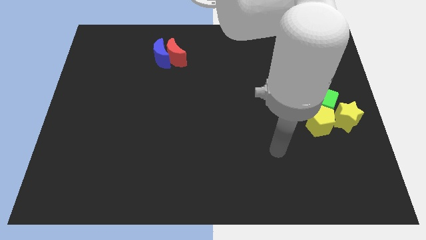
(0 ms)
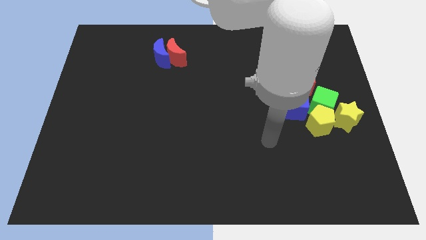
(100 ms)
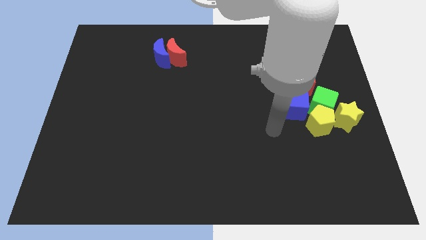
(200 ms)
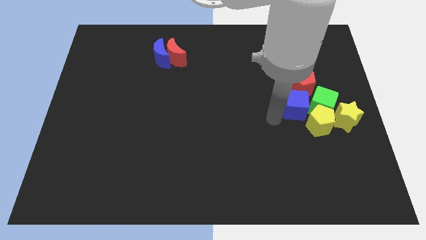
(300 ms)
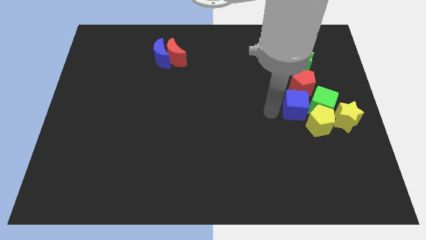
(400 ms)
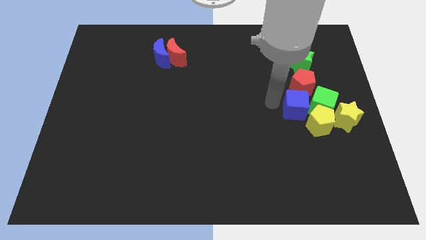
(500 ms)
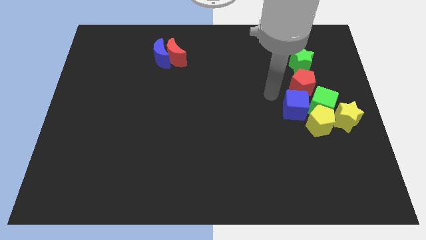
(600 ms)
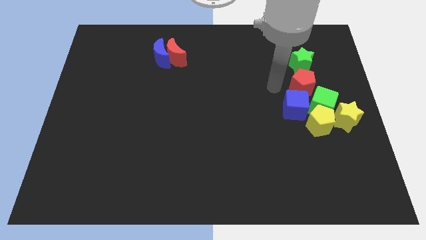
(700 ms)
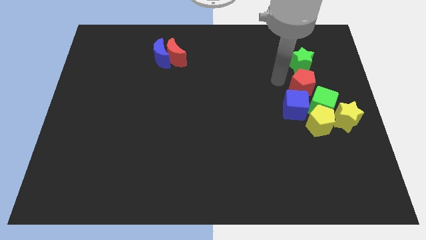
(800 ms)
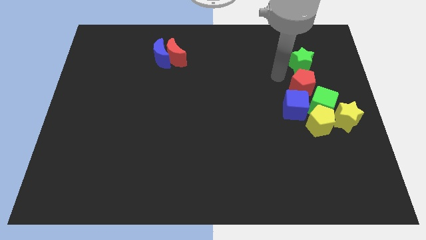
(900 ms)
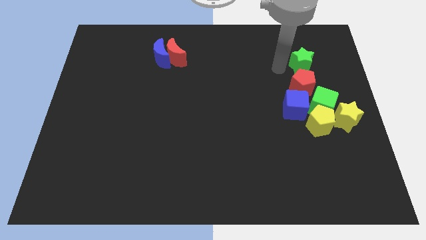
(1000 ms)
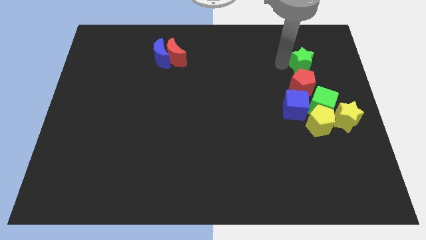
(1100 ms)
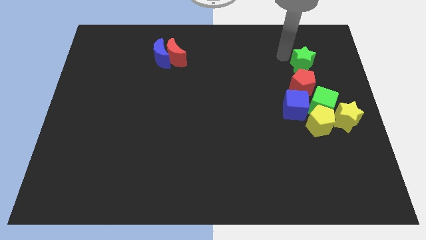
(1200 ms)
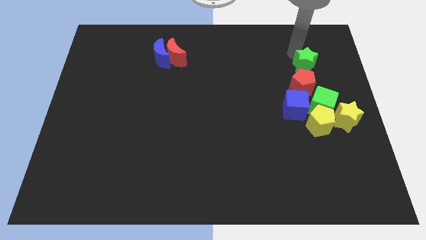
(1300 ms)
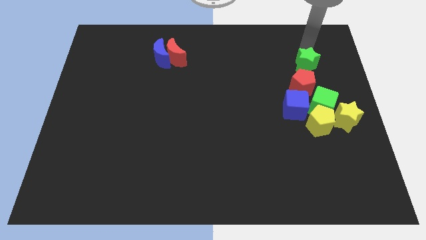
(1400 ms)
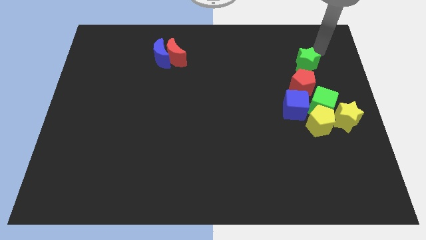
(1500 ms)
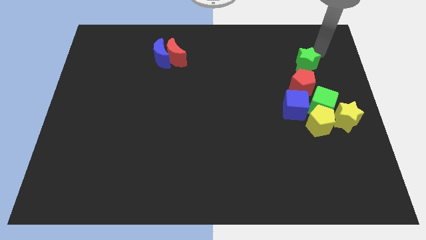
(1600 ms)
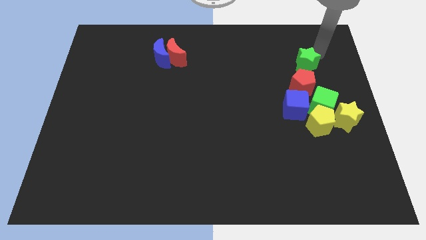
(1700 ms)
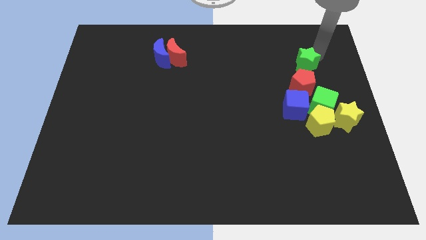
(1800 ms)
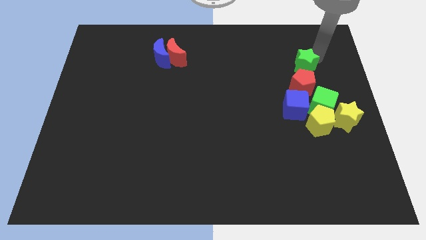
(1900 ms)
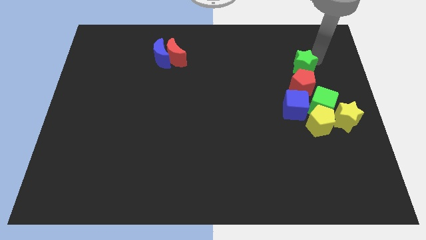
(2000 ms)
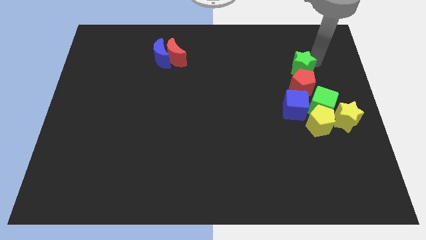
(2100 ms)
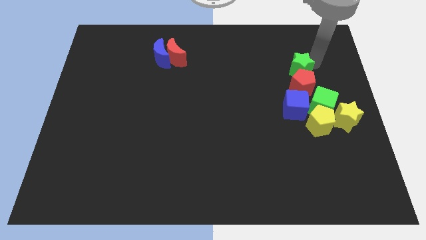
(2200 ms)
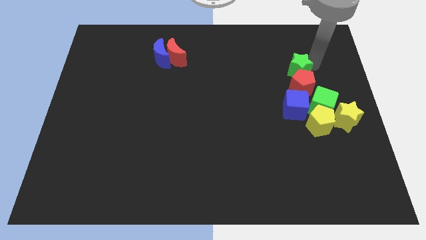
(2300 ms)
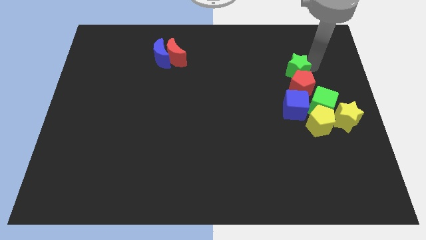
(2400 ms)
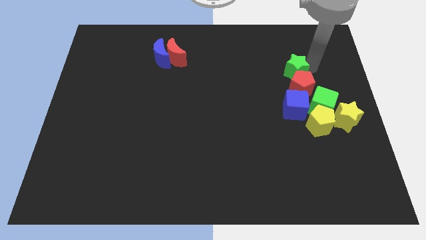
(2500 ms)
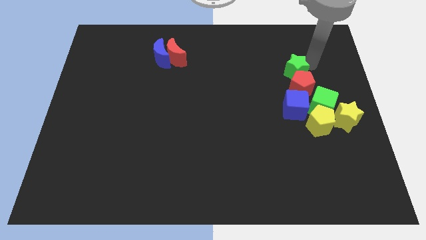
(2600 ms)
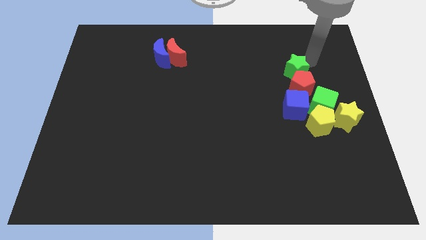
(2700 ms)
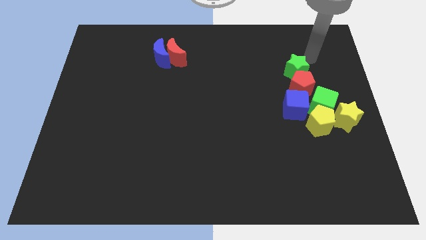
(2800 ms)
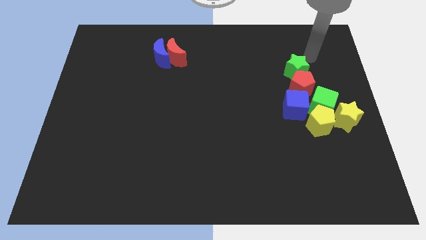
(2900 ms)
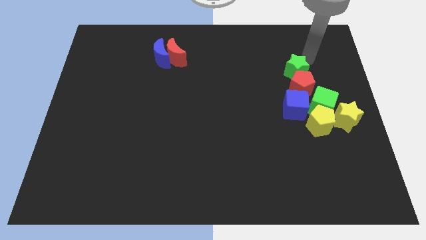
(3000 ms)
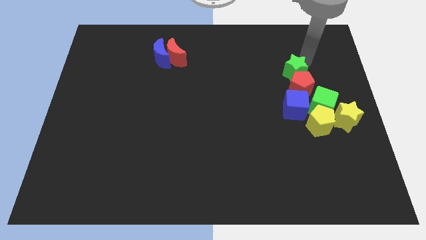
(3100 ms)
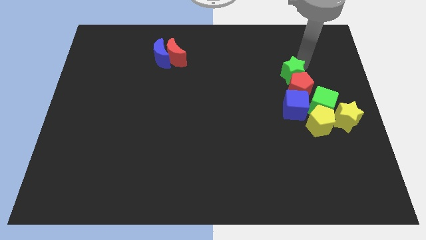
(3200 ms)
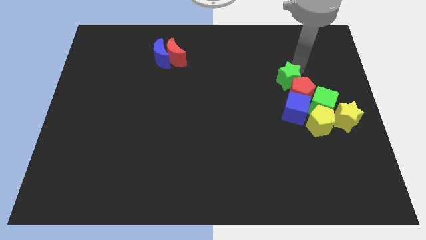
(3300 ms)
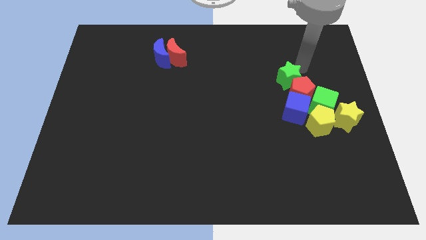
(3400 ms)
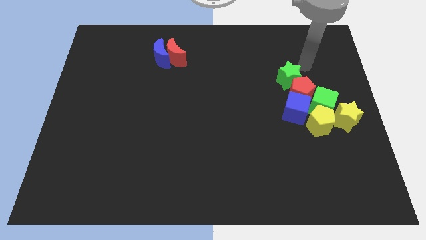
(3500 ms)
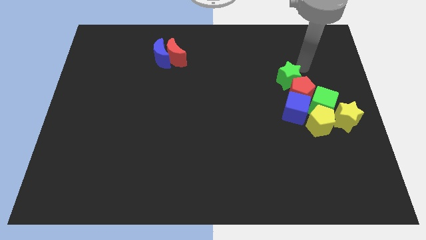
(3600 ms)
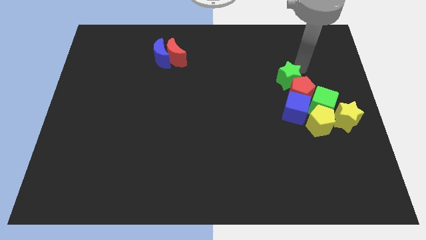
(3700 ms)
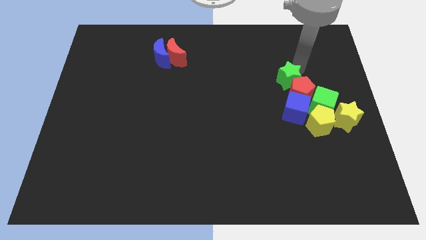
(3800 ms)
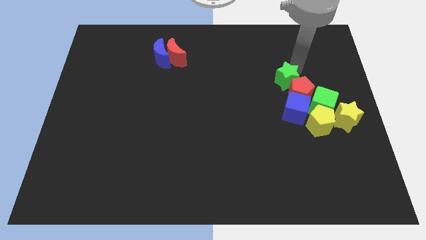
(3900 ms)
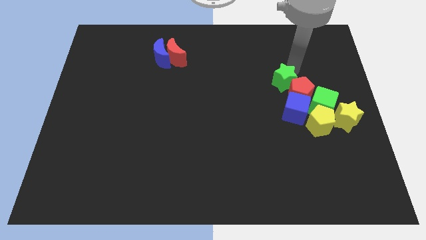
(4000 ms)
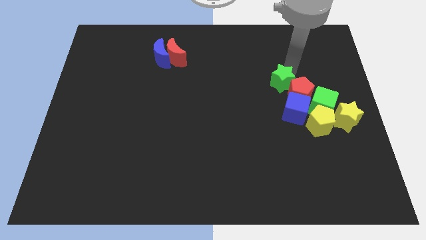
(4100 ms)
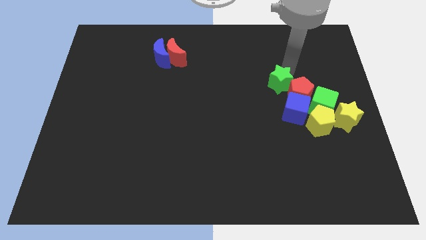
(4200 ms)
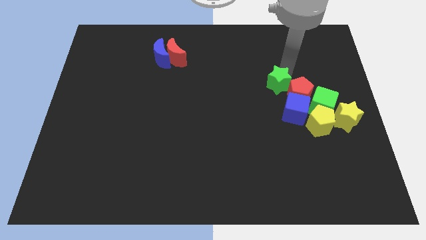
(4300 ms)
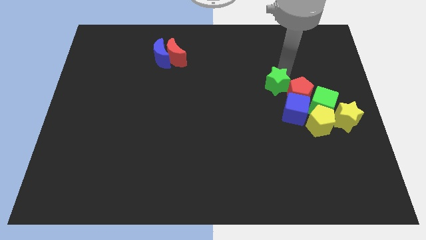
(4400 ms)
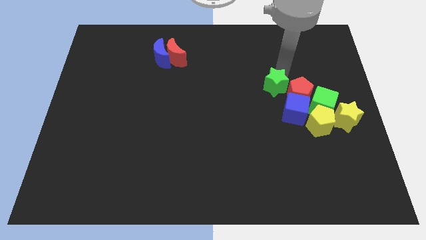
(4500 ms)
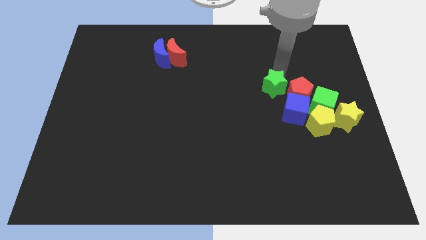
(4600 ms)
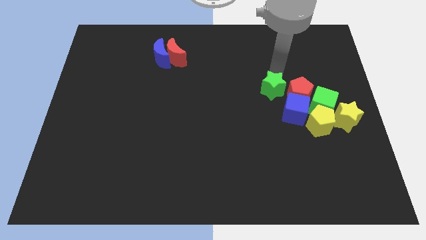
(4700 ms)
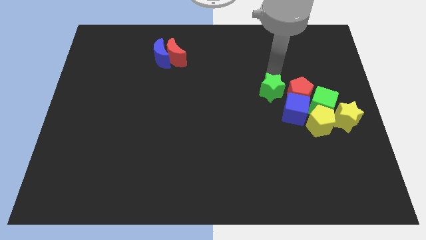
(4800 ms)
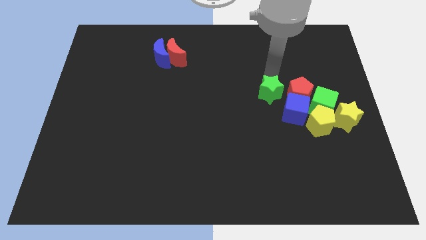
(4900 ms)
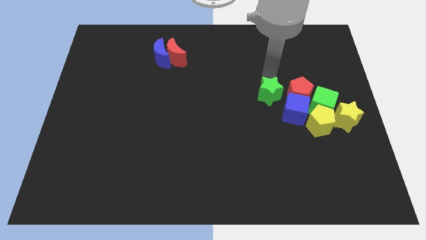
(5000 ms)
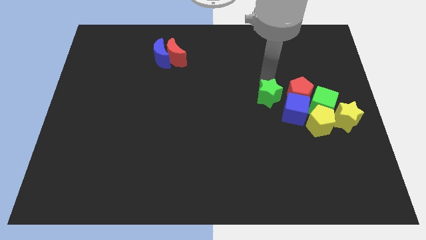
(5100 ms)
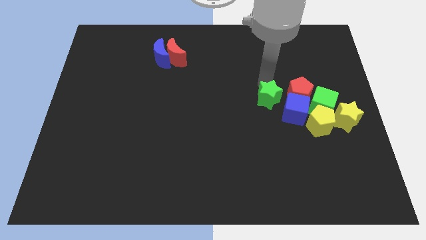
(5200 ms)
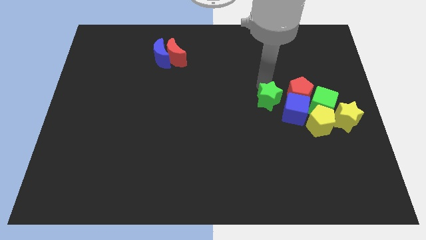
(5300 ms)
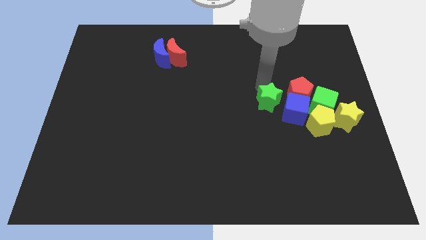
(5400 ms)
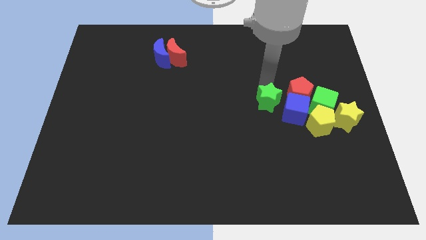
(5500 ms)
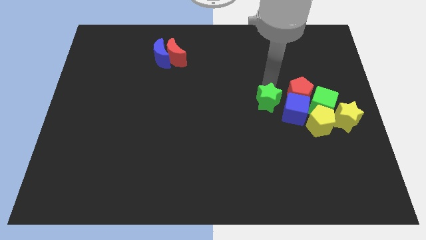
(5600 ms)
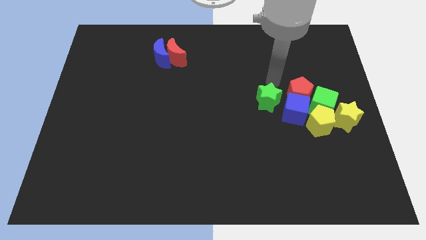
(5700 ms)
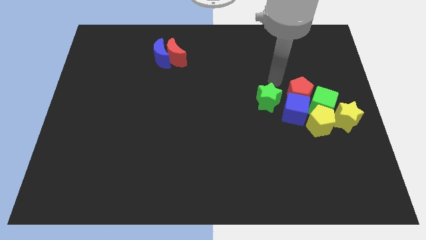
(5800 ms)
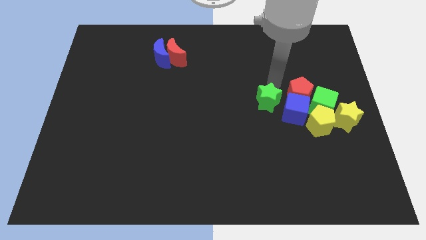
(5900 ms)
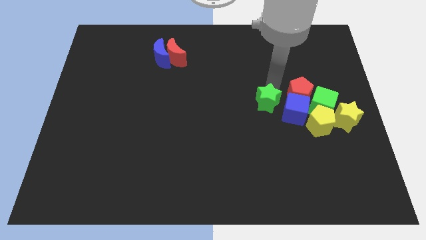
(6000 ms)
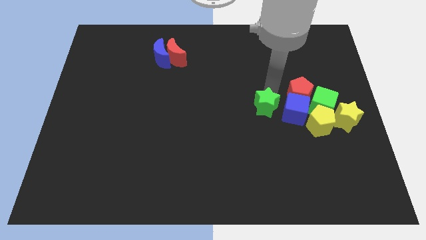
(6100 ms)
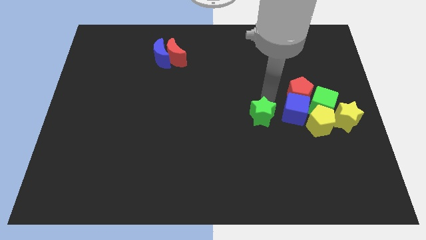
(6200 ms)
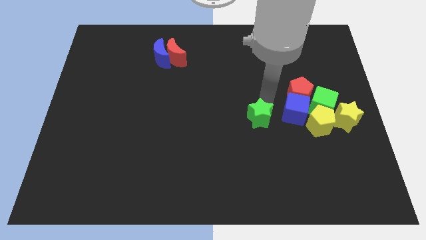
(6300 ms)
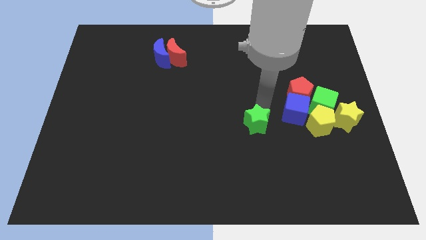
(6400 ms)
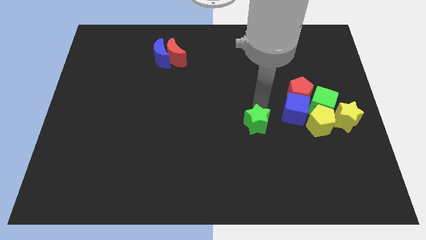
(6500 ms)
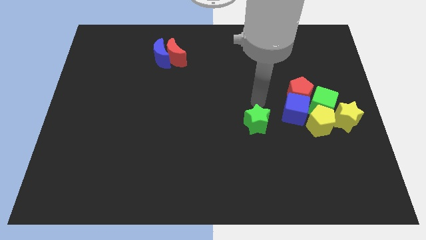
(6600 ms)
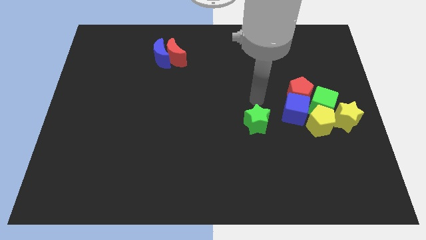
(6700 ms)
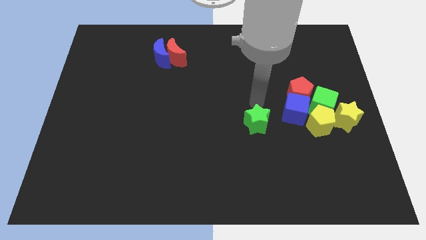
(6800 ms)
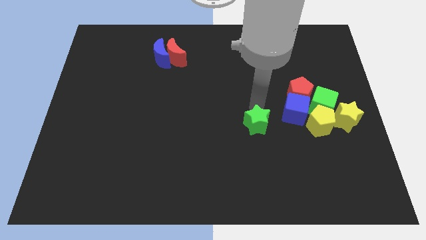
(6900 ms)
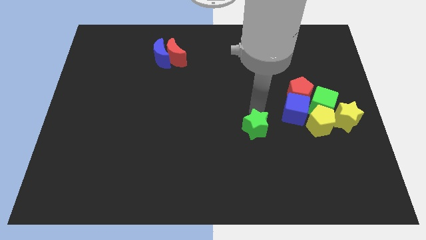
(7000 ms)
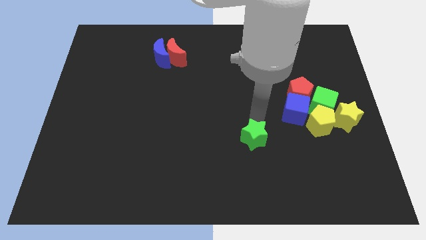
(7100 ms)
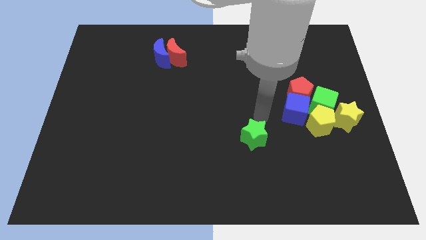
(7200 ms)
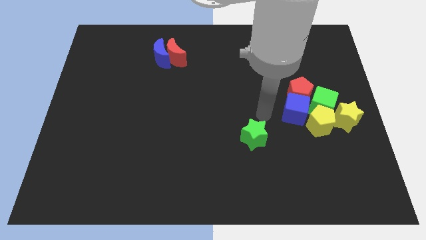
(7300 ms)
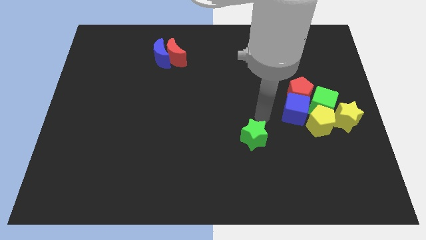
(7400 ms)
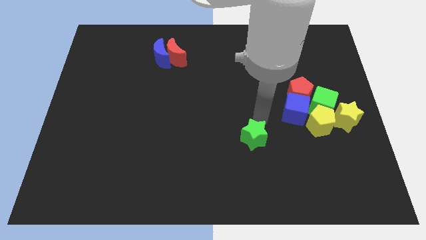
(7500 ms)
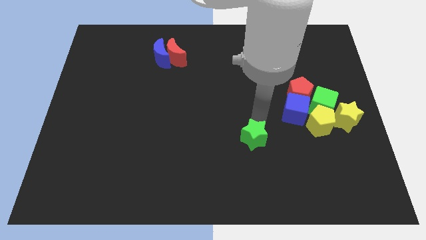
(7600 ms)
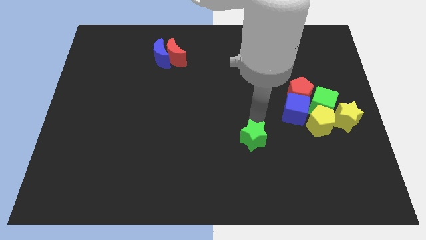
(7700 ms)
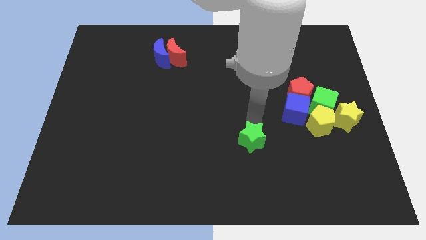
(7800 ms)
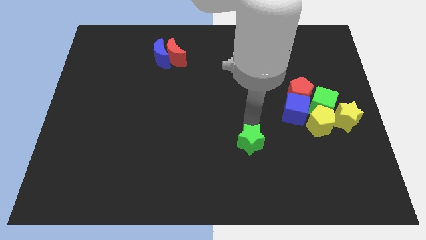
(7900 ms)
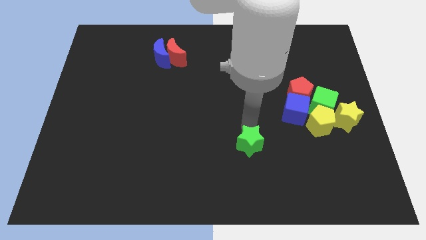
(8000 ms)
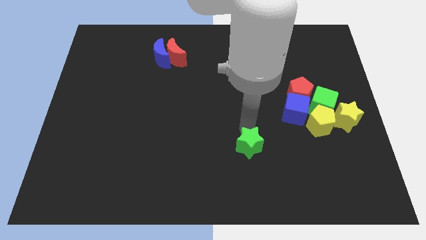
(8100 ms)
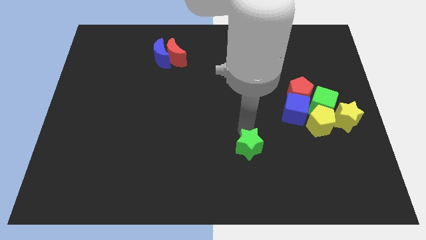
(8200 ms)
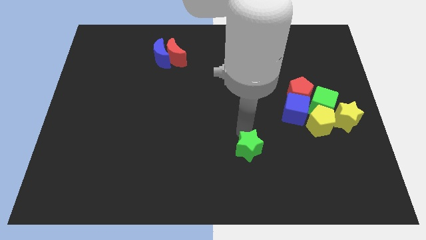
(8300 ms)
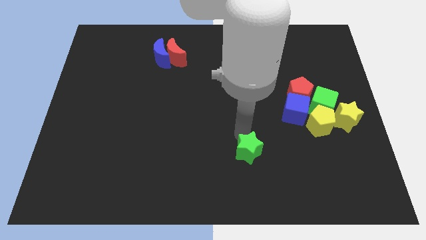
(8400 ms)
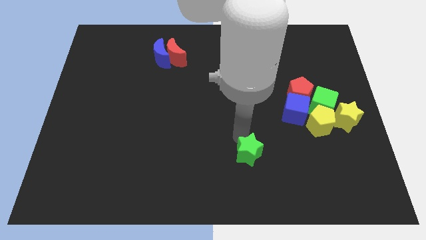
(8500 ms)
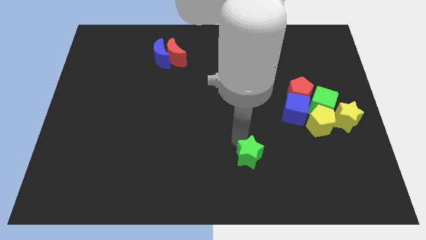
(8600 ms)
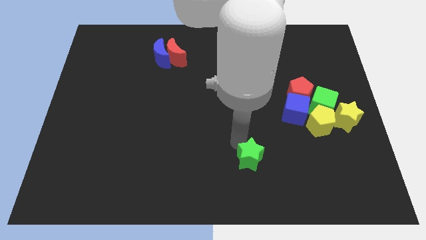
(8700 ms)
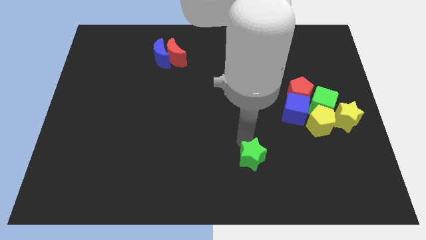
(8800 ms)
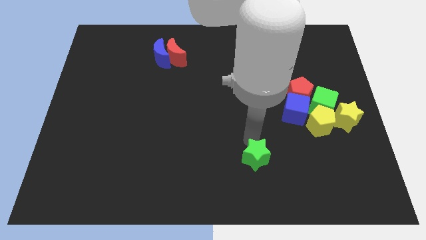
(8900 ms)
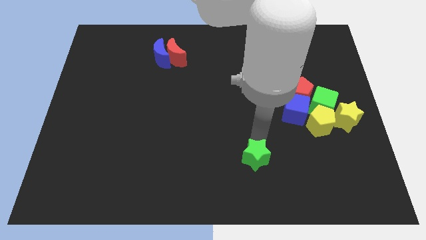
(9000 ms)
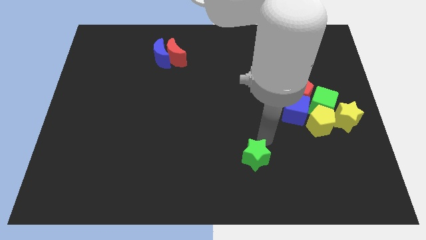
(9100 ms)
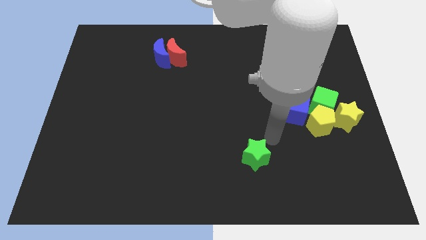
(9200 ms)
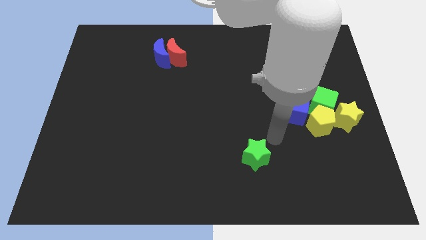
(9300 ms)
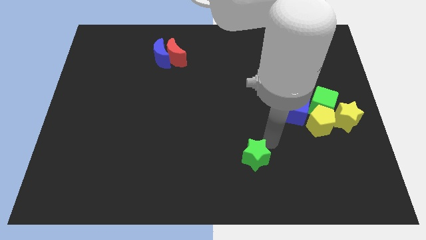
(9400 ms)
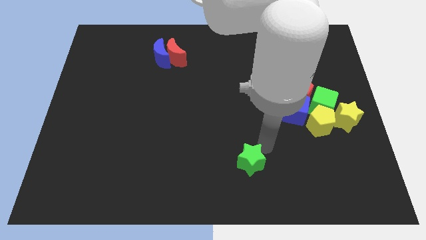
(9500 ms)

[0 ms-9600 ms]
push the green star to the bottom side
